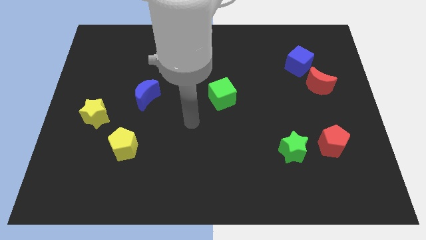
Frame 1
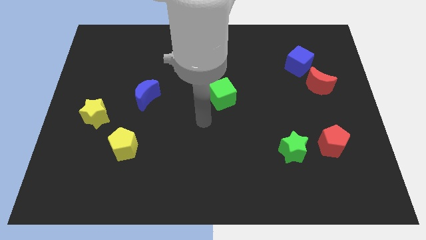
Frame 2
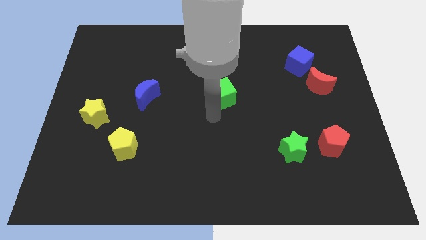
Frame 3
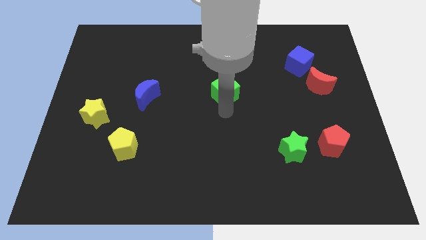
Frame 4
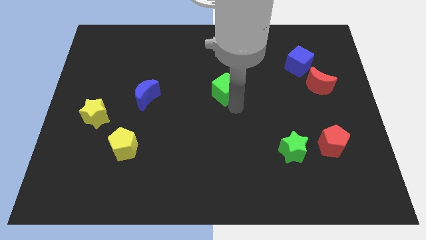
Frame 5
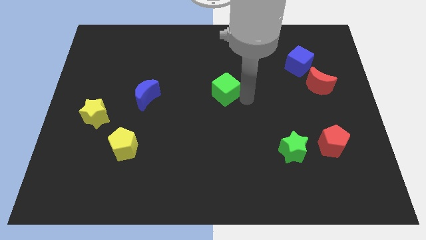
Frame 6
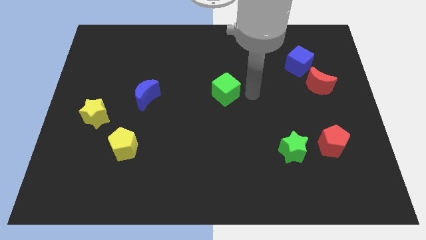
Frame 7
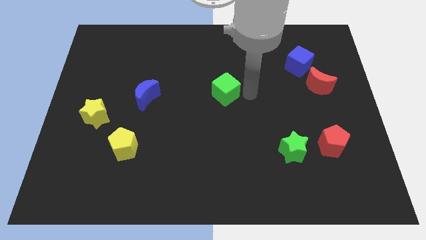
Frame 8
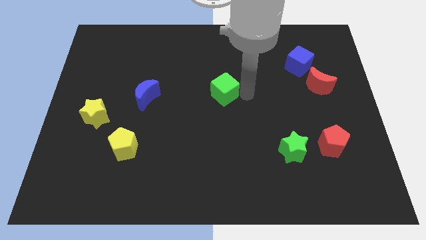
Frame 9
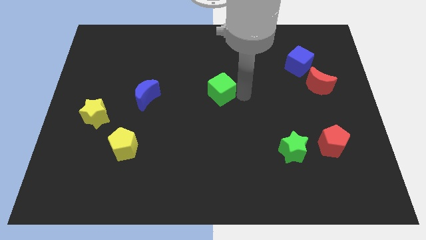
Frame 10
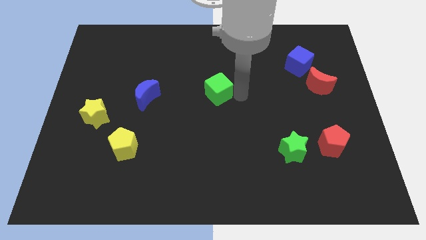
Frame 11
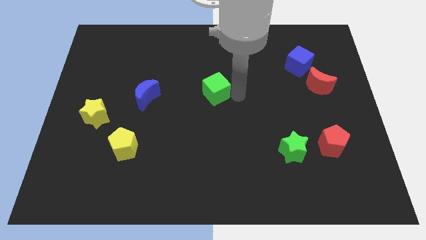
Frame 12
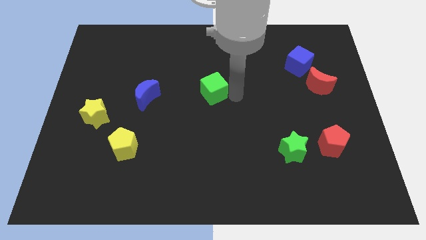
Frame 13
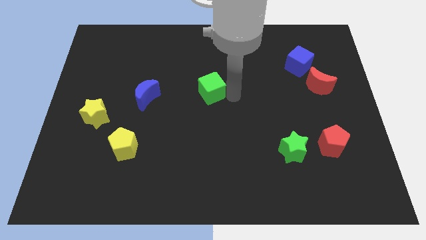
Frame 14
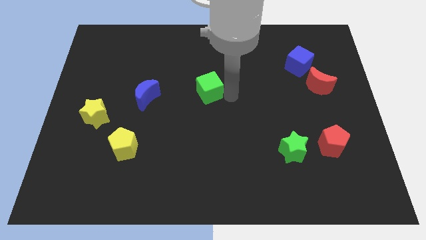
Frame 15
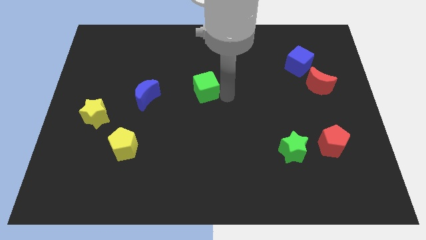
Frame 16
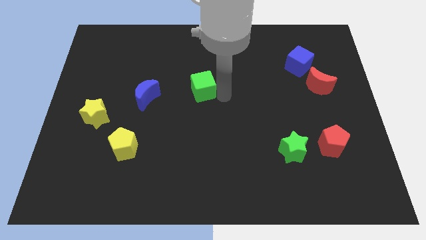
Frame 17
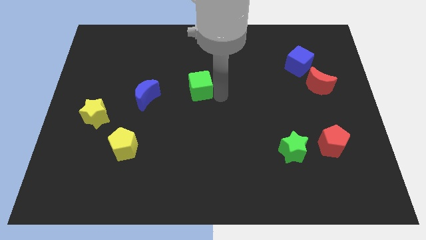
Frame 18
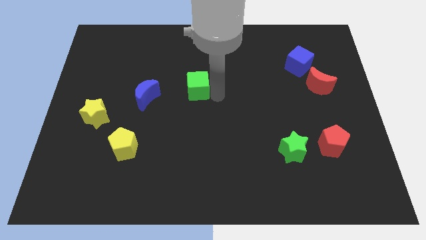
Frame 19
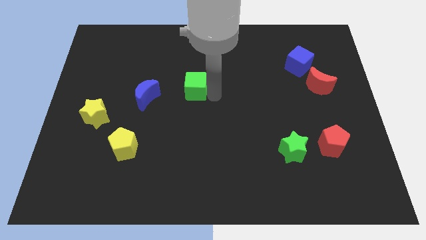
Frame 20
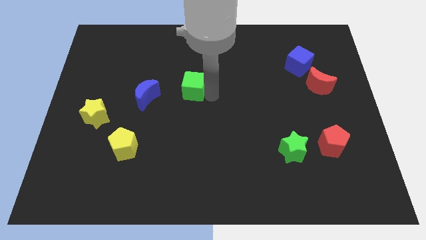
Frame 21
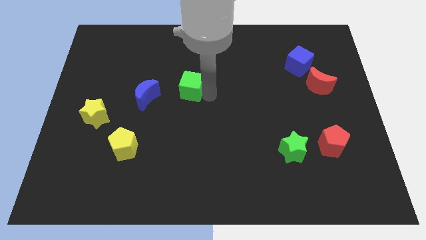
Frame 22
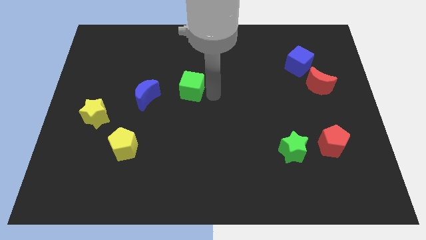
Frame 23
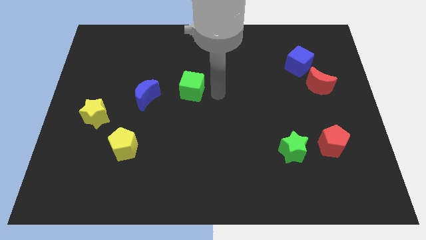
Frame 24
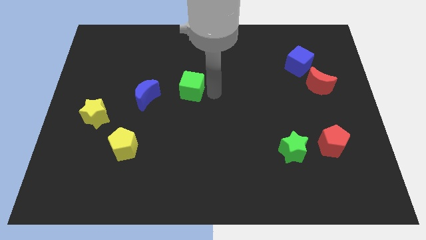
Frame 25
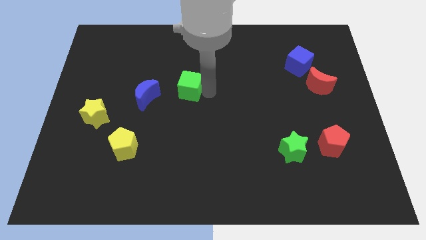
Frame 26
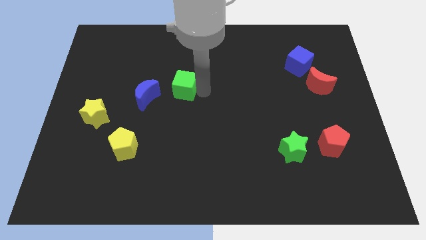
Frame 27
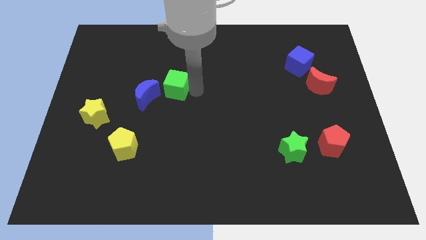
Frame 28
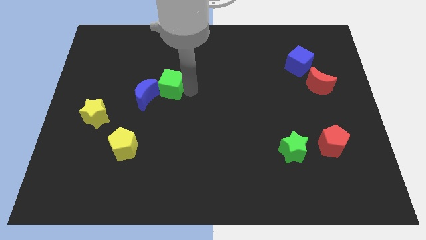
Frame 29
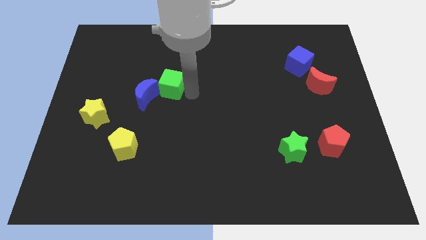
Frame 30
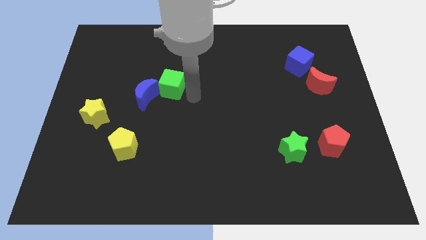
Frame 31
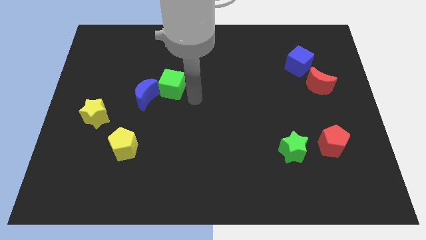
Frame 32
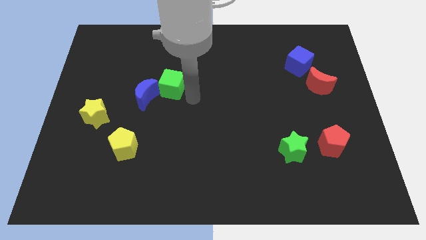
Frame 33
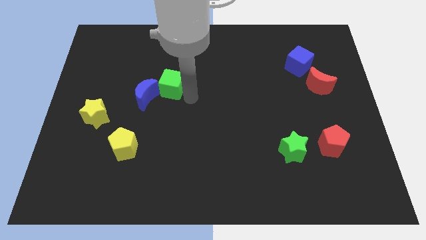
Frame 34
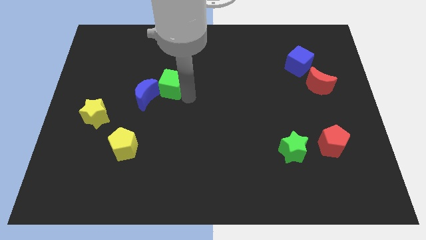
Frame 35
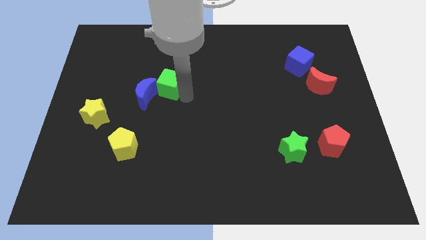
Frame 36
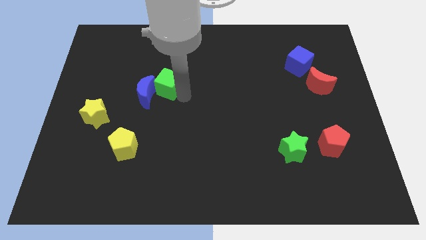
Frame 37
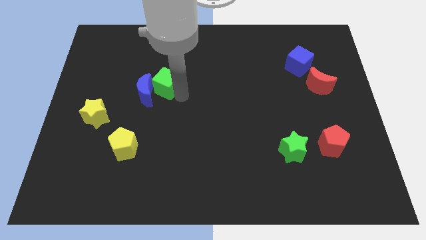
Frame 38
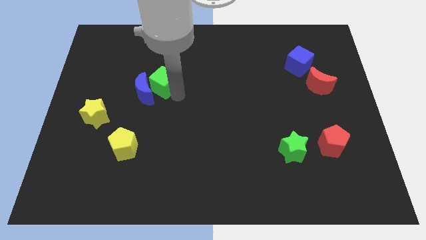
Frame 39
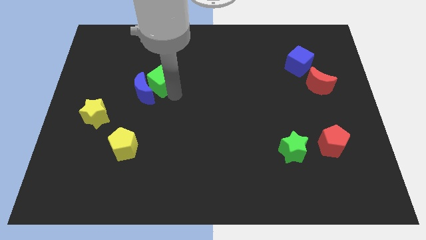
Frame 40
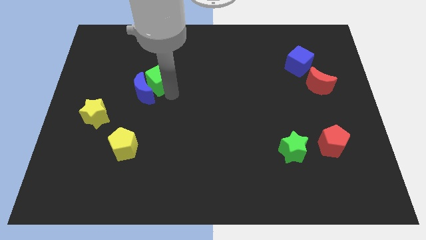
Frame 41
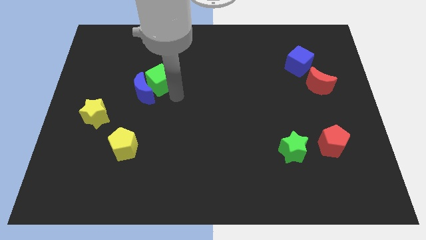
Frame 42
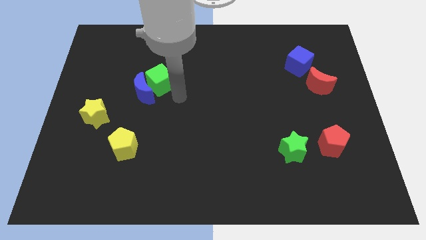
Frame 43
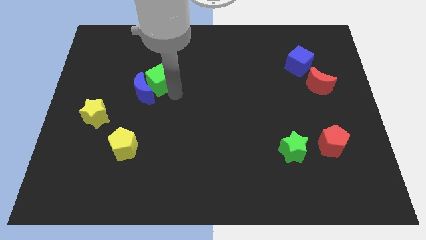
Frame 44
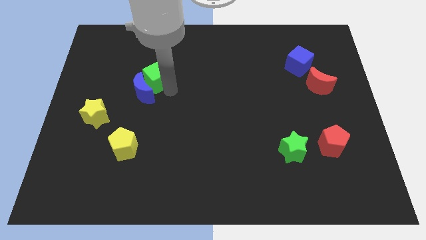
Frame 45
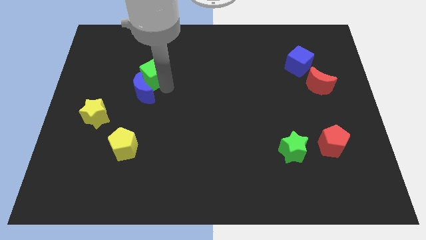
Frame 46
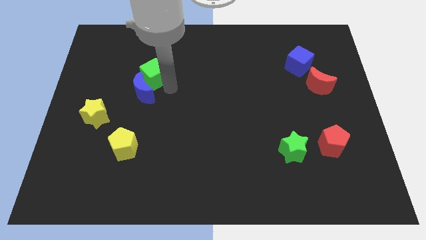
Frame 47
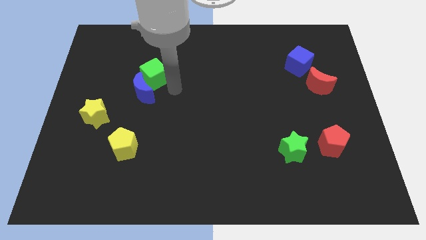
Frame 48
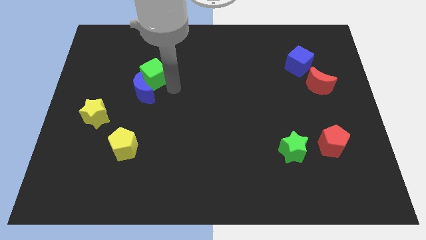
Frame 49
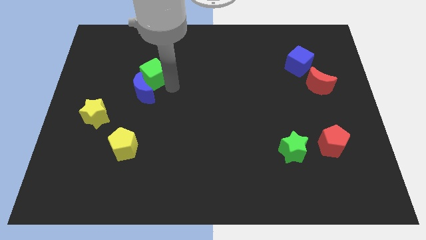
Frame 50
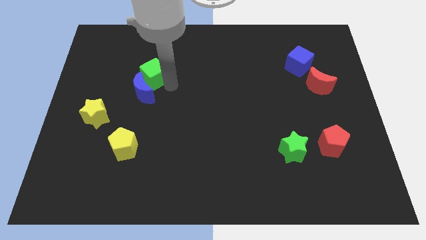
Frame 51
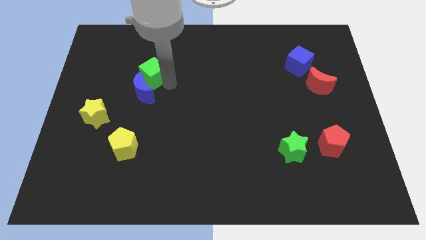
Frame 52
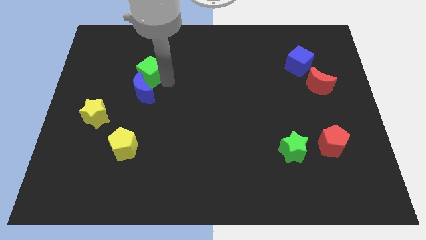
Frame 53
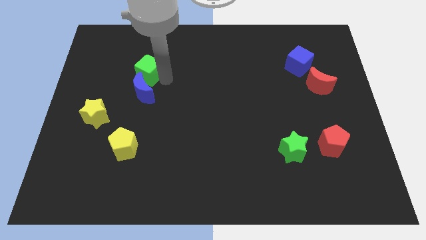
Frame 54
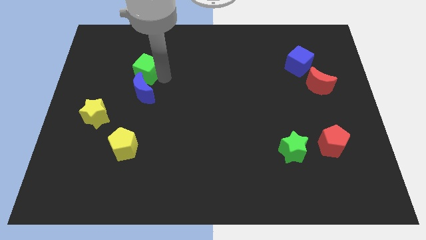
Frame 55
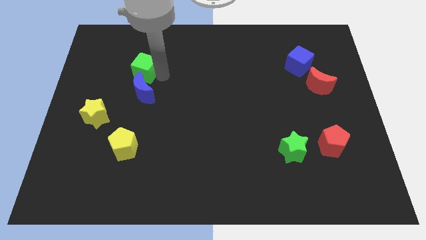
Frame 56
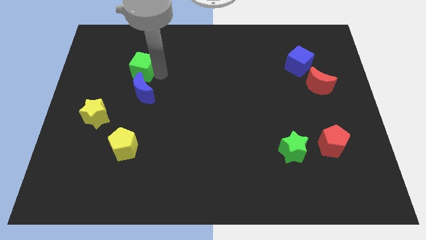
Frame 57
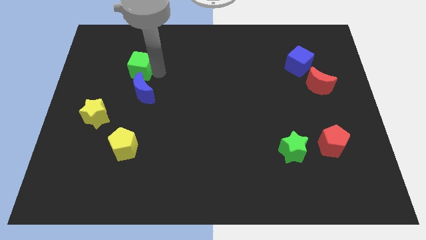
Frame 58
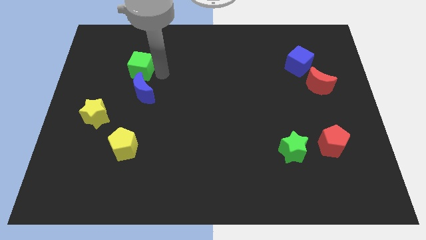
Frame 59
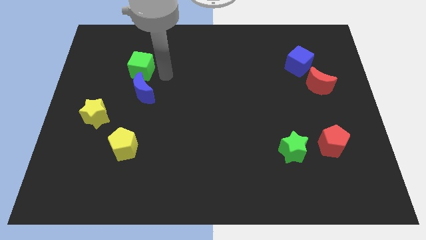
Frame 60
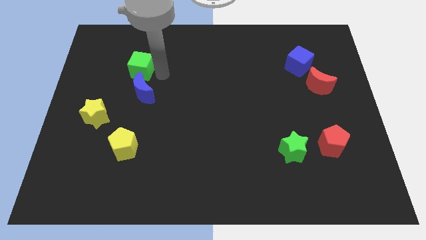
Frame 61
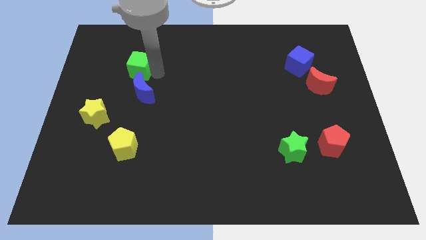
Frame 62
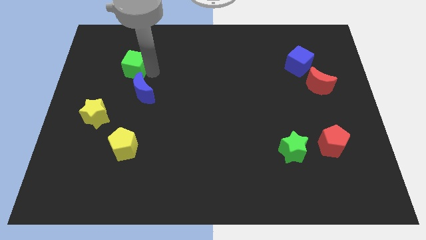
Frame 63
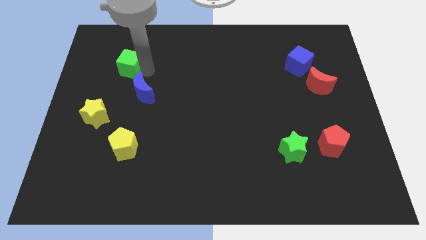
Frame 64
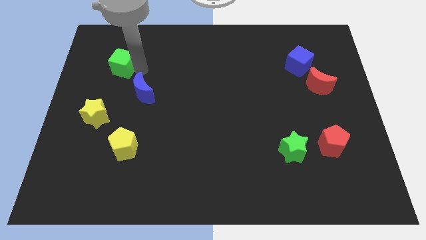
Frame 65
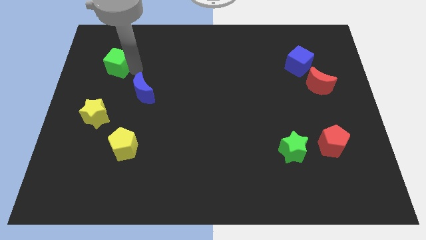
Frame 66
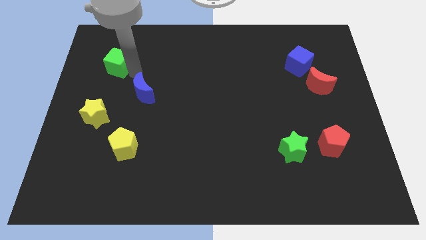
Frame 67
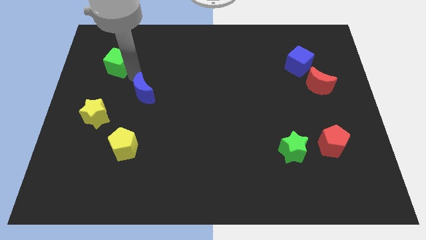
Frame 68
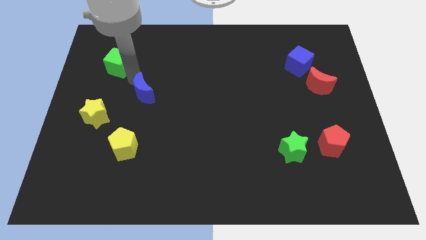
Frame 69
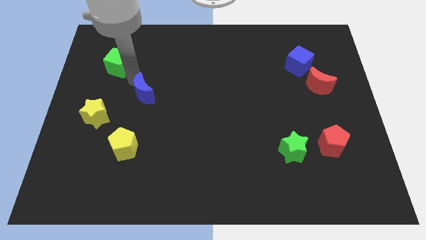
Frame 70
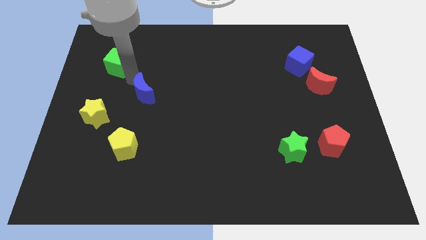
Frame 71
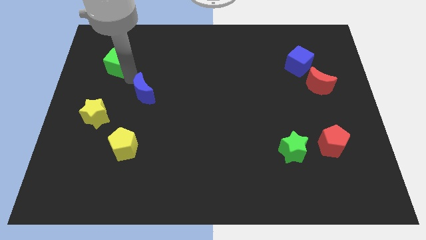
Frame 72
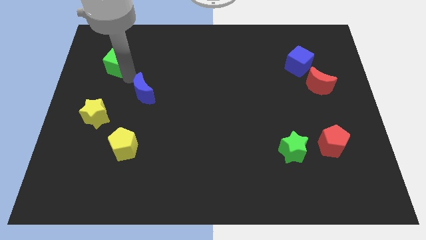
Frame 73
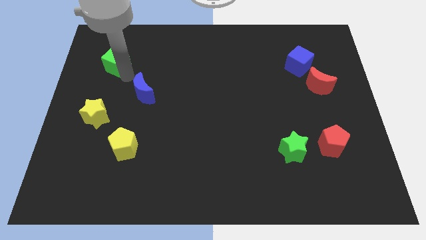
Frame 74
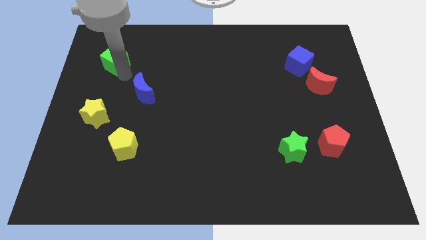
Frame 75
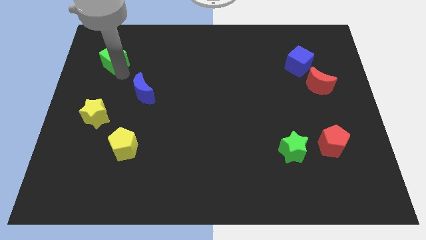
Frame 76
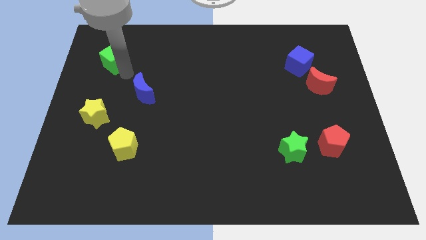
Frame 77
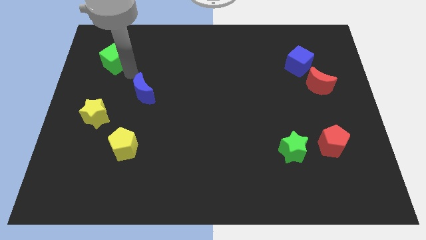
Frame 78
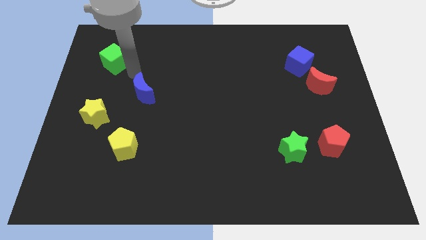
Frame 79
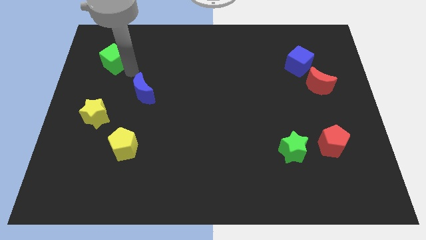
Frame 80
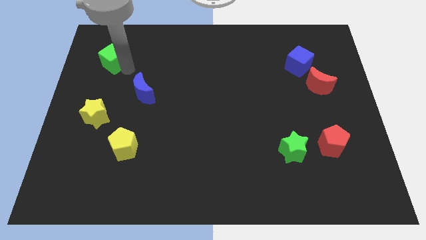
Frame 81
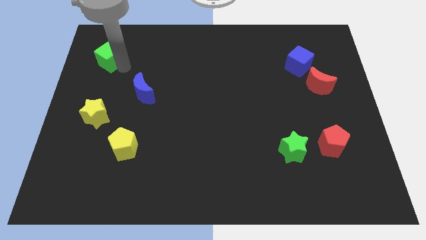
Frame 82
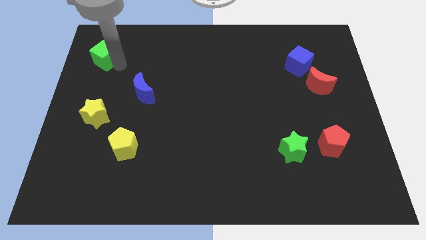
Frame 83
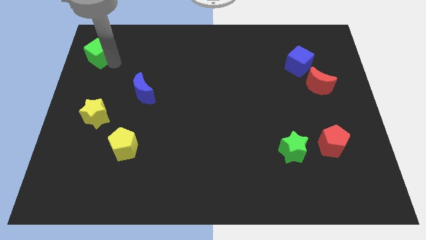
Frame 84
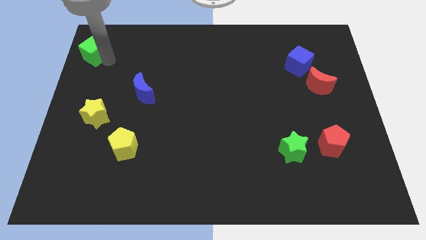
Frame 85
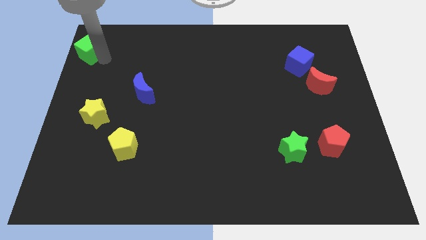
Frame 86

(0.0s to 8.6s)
slide the green cube to the top left of the board
